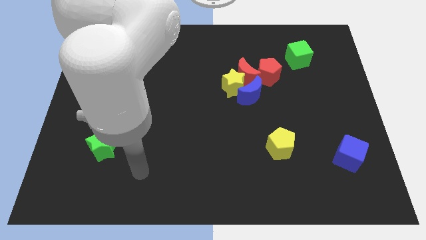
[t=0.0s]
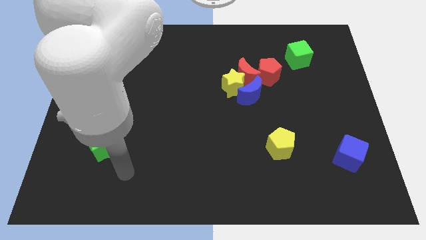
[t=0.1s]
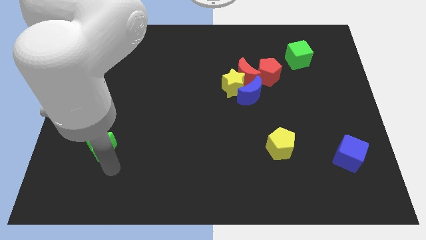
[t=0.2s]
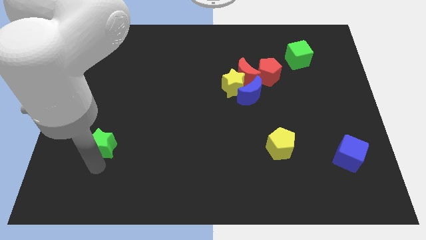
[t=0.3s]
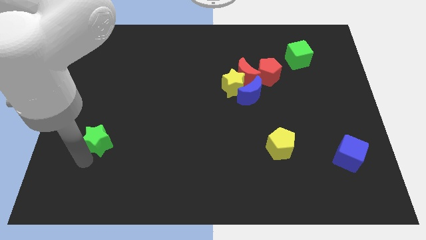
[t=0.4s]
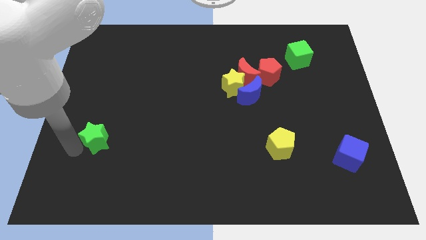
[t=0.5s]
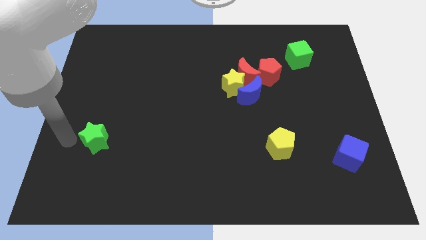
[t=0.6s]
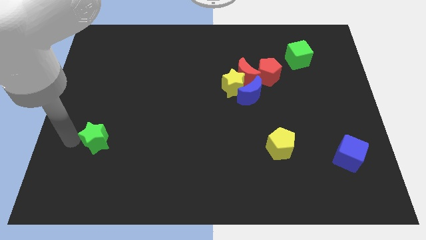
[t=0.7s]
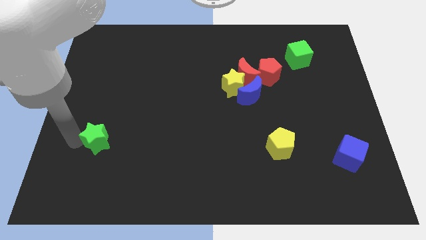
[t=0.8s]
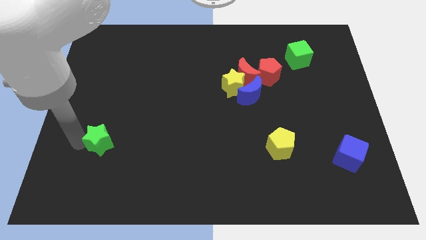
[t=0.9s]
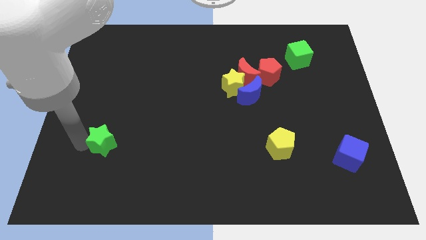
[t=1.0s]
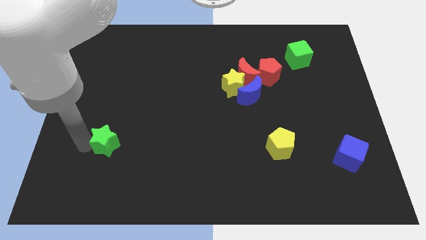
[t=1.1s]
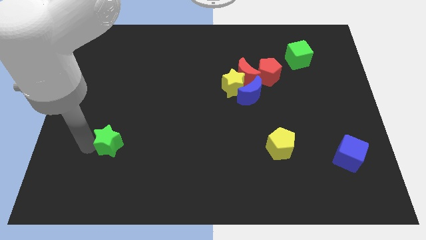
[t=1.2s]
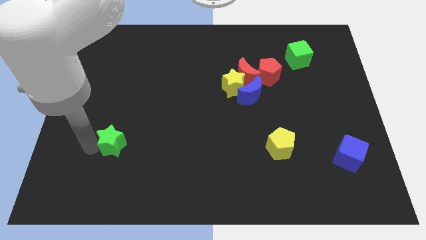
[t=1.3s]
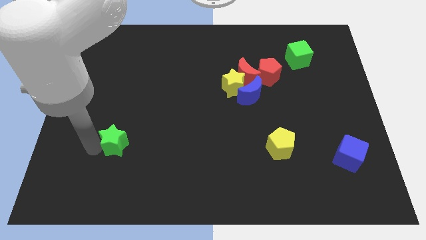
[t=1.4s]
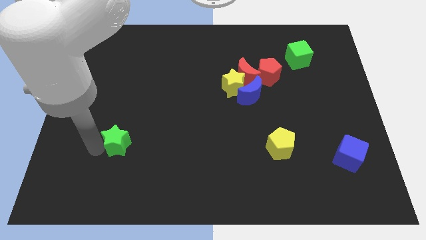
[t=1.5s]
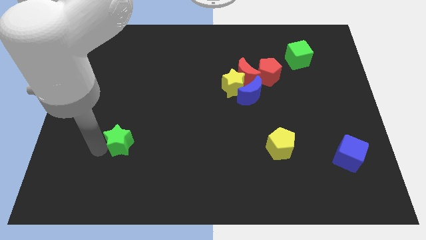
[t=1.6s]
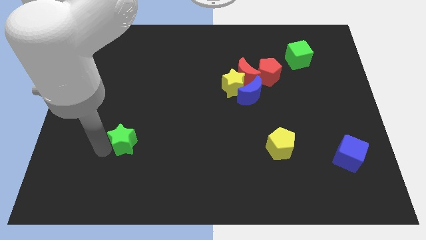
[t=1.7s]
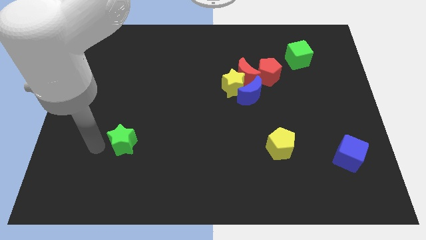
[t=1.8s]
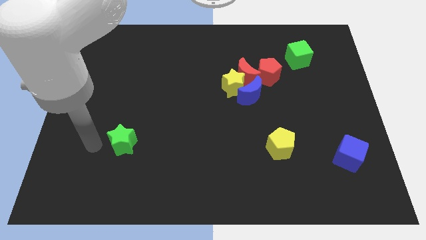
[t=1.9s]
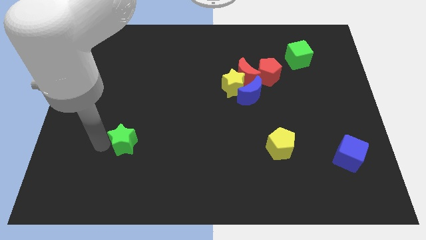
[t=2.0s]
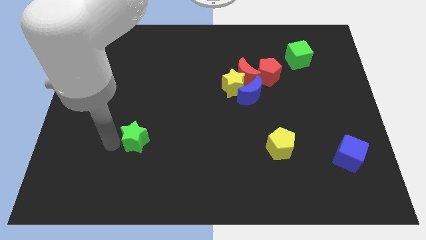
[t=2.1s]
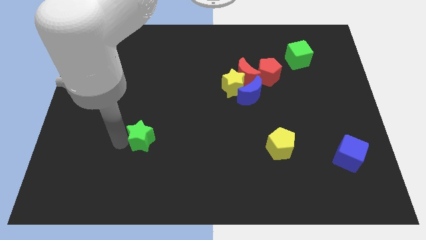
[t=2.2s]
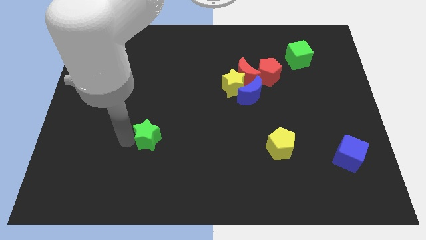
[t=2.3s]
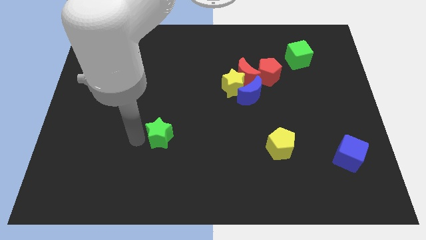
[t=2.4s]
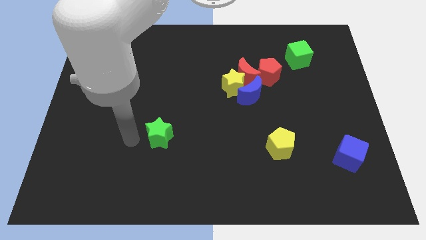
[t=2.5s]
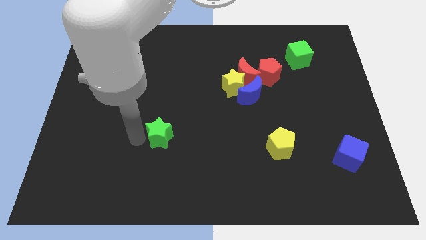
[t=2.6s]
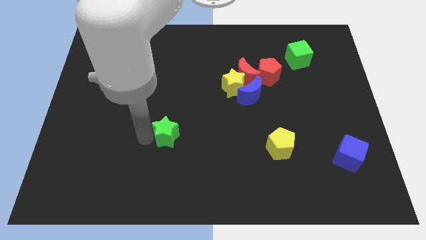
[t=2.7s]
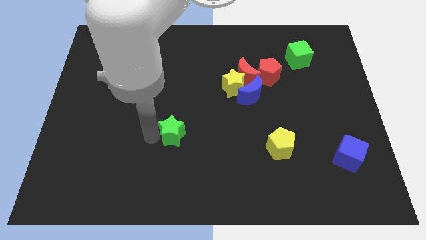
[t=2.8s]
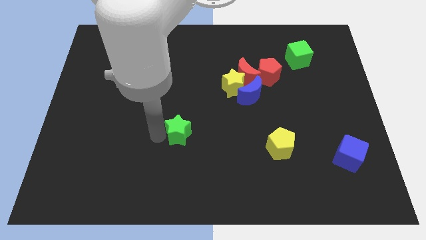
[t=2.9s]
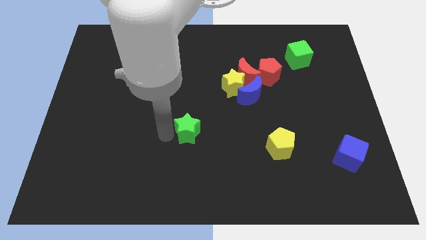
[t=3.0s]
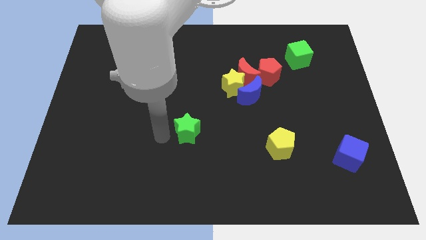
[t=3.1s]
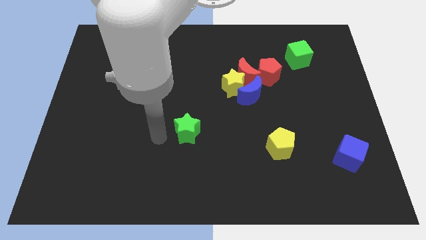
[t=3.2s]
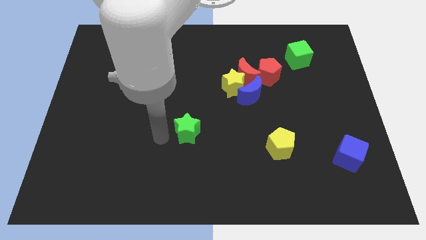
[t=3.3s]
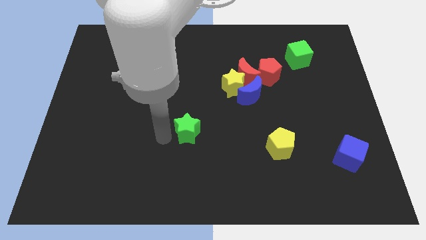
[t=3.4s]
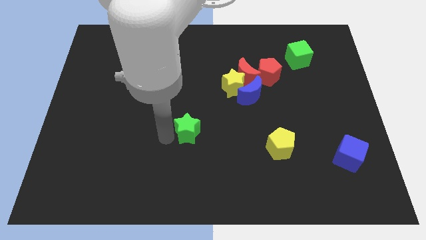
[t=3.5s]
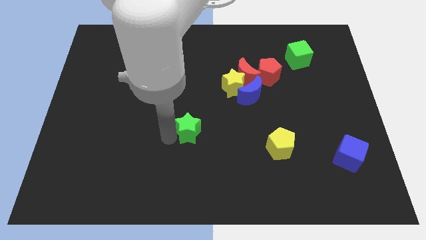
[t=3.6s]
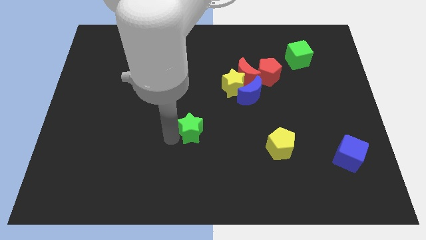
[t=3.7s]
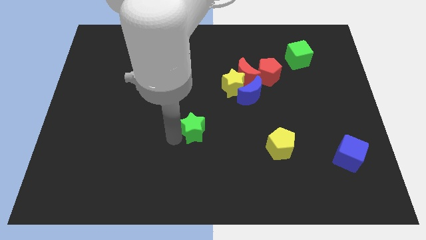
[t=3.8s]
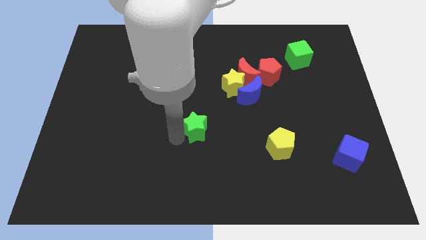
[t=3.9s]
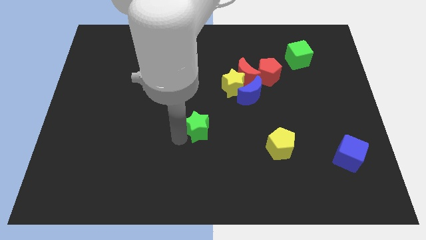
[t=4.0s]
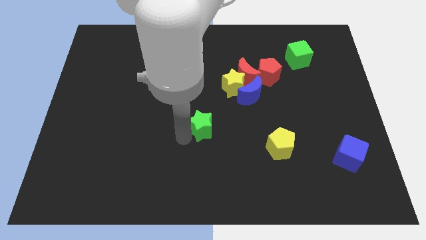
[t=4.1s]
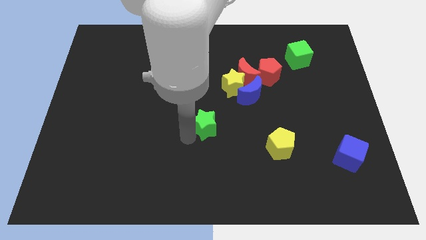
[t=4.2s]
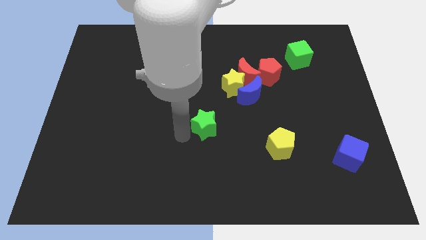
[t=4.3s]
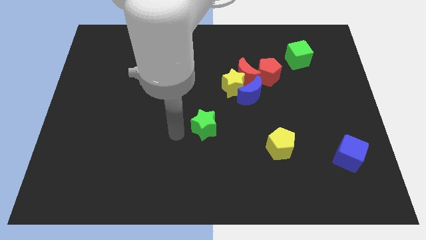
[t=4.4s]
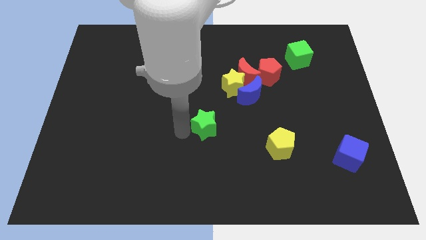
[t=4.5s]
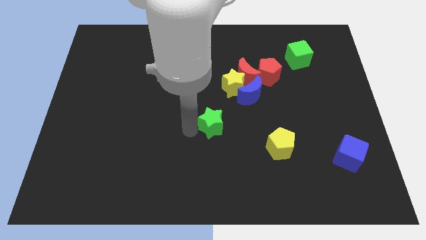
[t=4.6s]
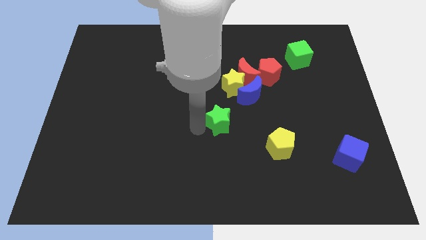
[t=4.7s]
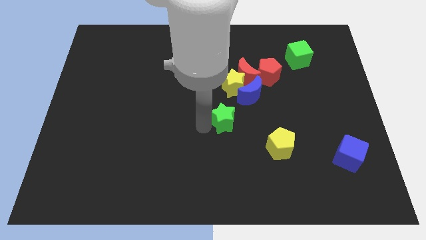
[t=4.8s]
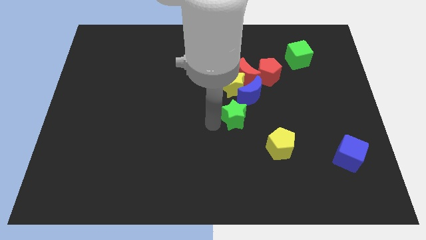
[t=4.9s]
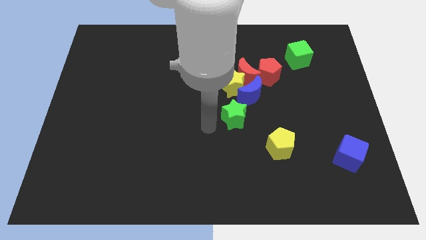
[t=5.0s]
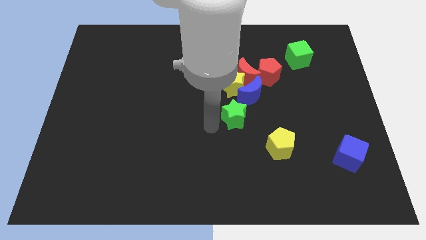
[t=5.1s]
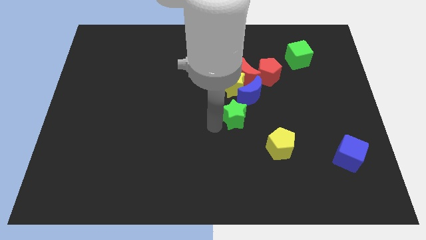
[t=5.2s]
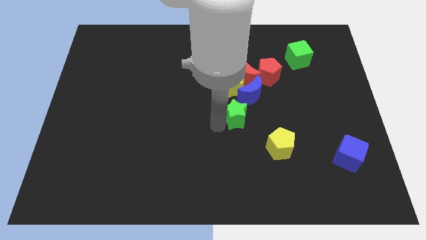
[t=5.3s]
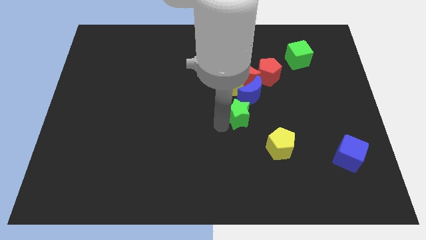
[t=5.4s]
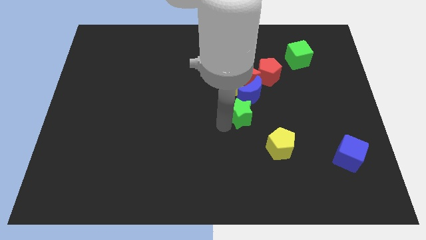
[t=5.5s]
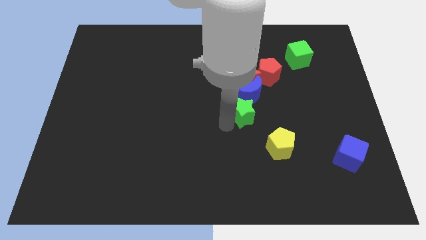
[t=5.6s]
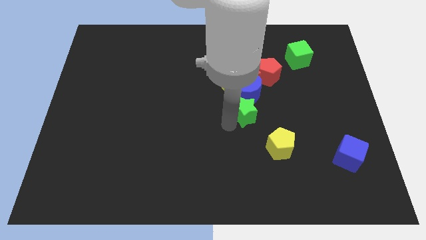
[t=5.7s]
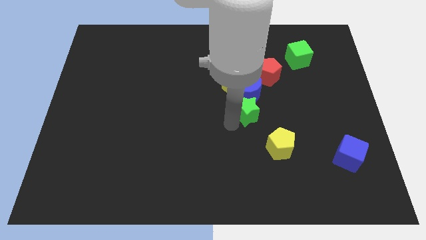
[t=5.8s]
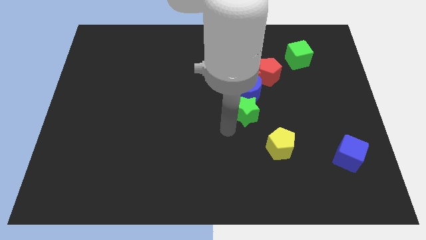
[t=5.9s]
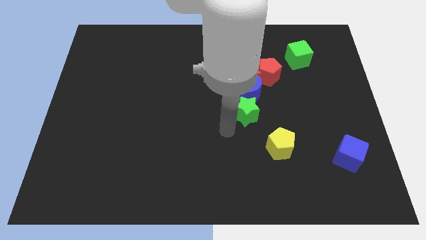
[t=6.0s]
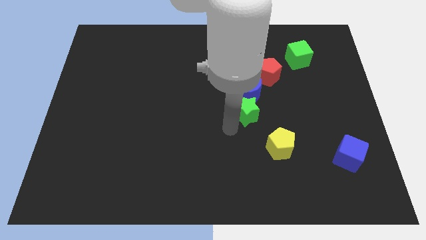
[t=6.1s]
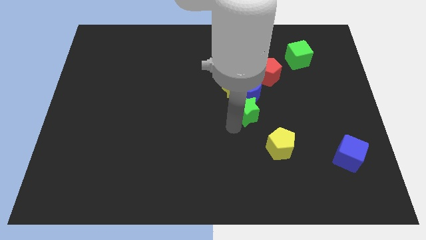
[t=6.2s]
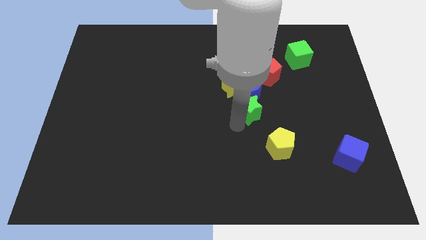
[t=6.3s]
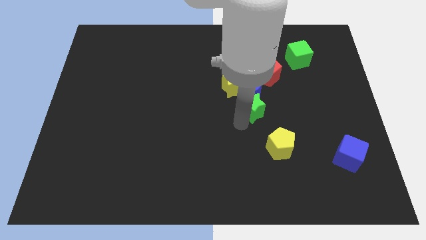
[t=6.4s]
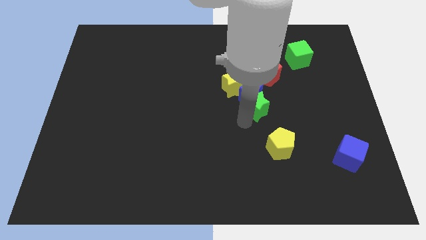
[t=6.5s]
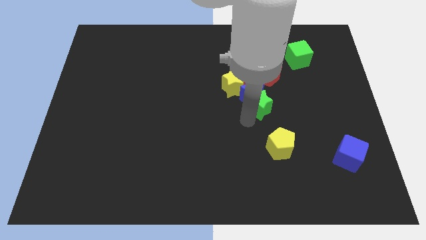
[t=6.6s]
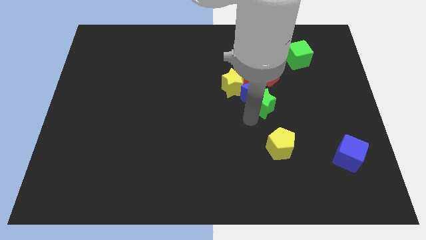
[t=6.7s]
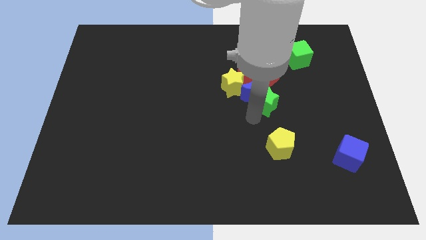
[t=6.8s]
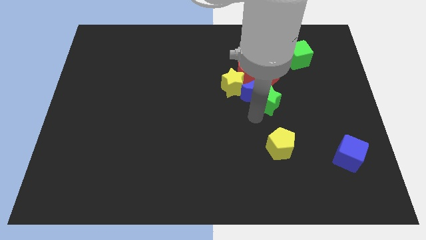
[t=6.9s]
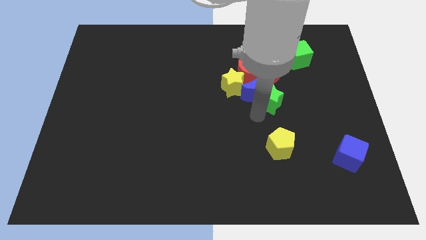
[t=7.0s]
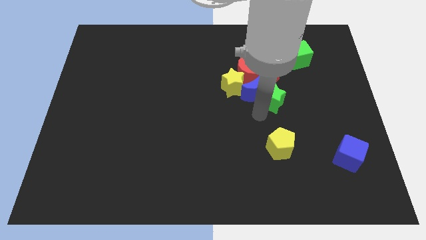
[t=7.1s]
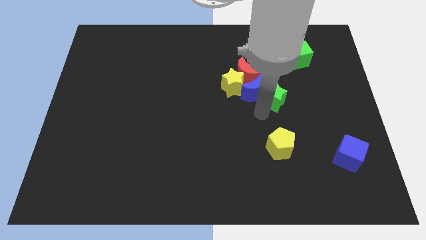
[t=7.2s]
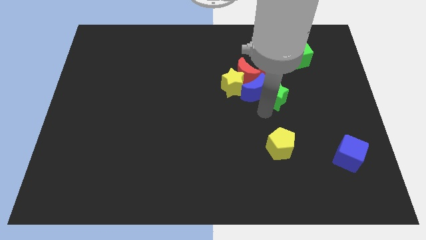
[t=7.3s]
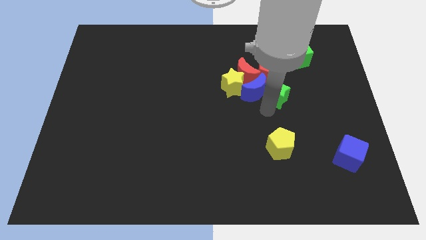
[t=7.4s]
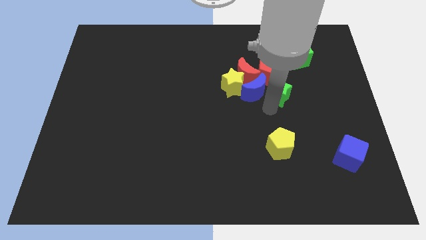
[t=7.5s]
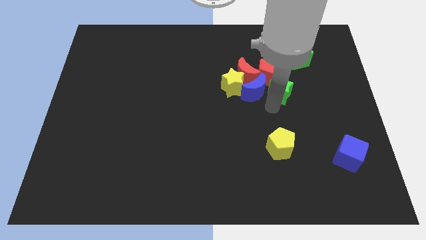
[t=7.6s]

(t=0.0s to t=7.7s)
slide the green star towards the red pentagon
